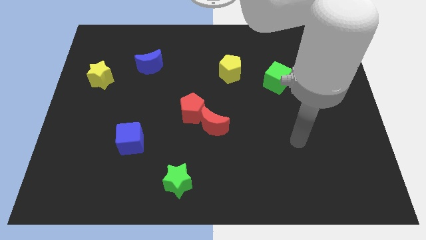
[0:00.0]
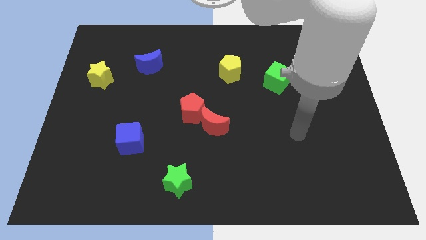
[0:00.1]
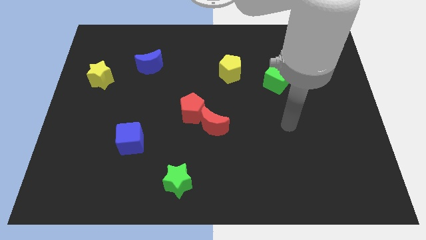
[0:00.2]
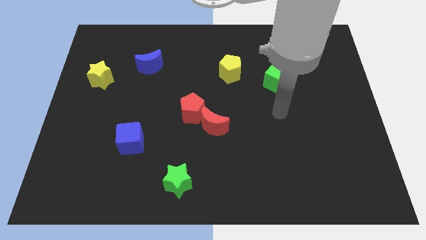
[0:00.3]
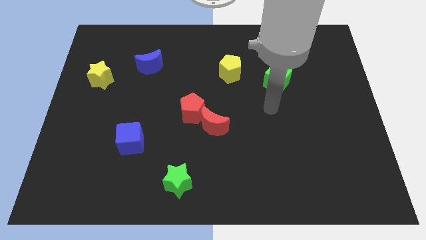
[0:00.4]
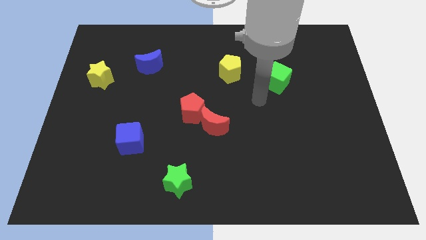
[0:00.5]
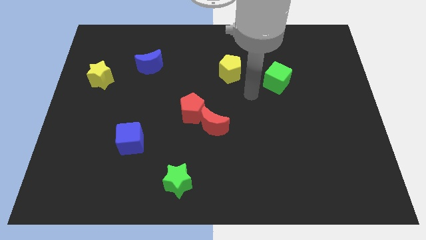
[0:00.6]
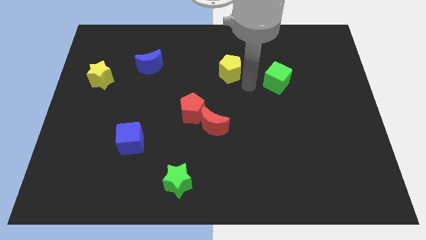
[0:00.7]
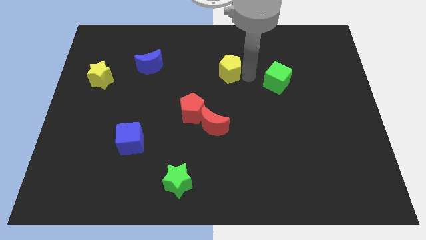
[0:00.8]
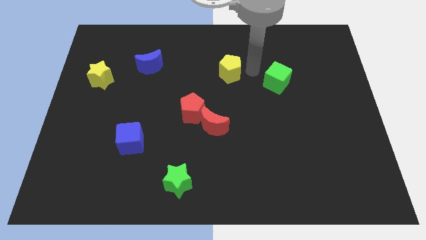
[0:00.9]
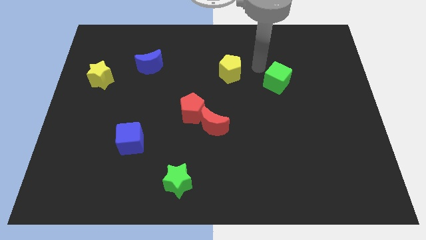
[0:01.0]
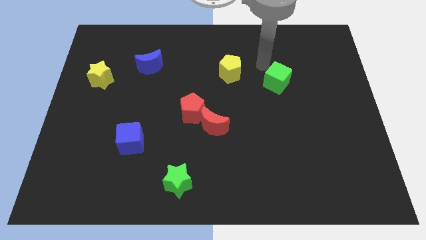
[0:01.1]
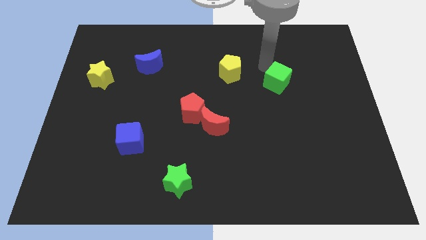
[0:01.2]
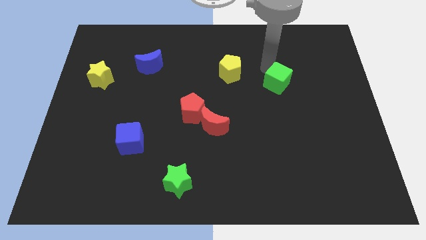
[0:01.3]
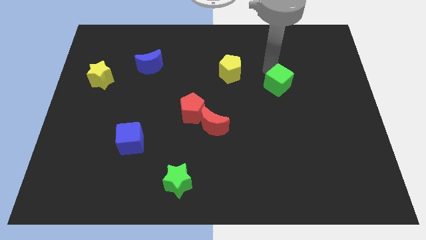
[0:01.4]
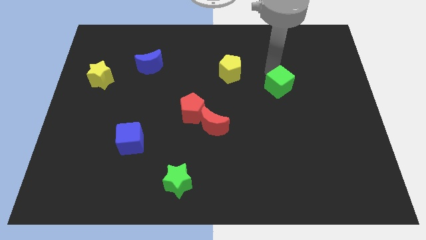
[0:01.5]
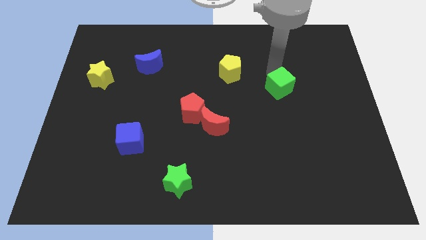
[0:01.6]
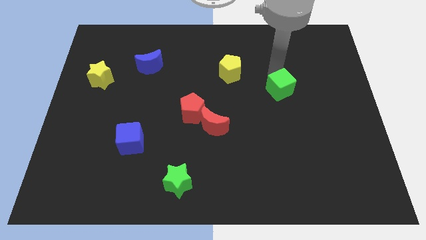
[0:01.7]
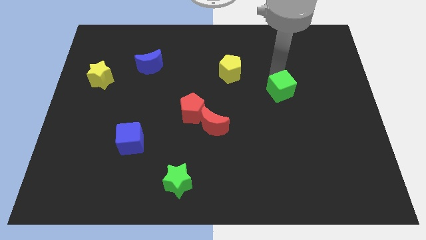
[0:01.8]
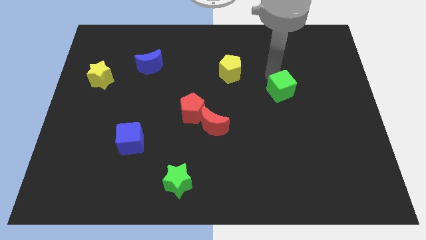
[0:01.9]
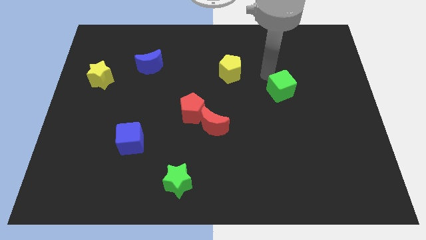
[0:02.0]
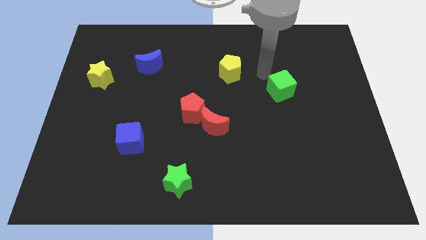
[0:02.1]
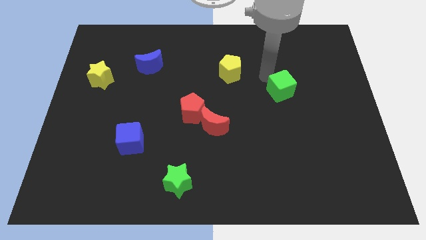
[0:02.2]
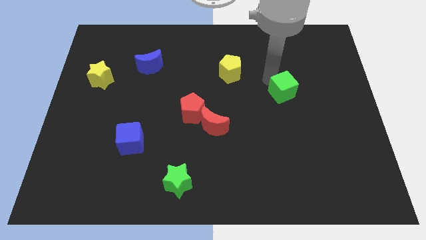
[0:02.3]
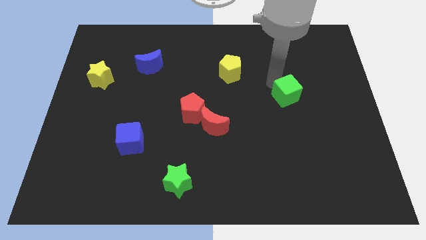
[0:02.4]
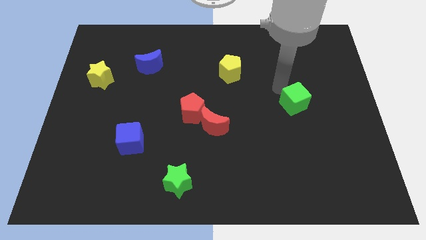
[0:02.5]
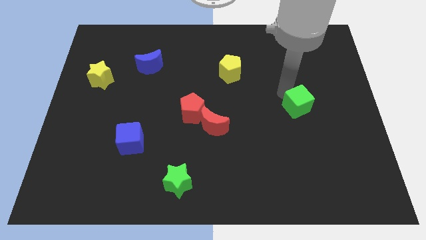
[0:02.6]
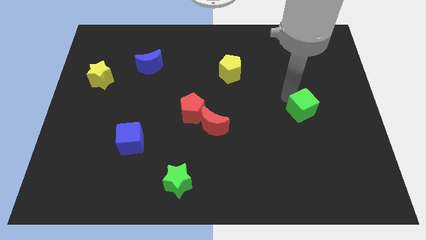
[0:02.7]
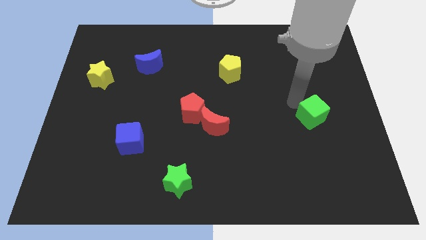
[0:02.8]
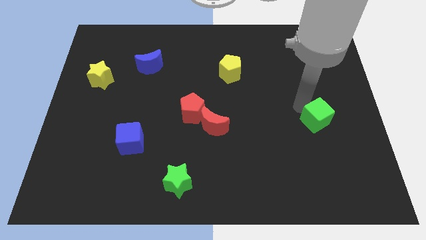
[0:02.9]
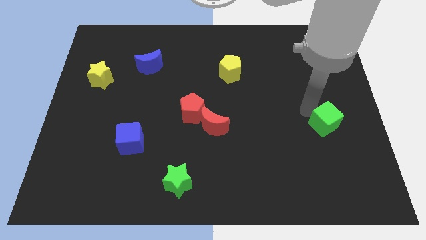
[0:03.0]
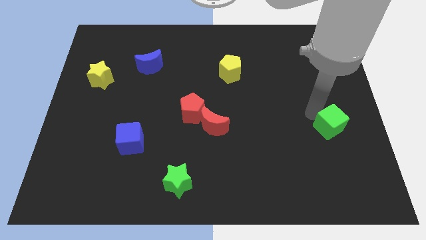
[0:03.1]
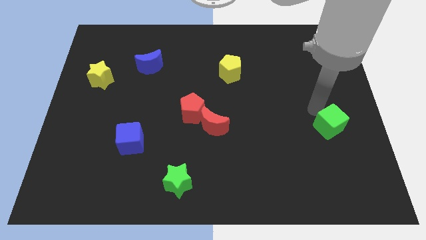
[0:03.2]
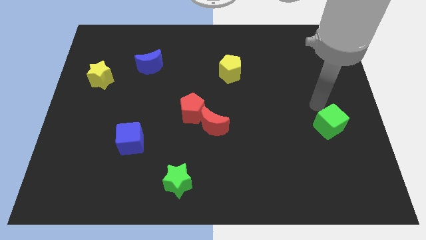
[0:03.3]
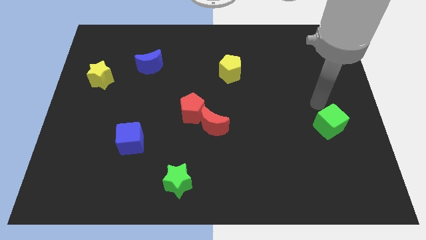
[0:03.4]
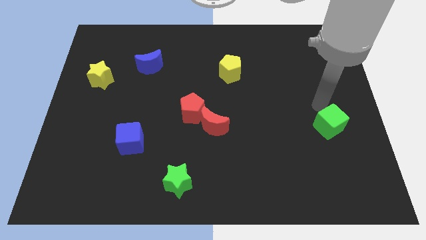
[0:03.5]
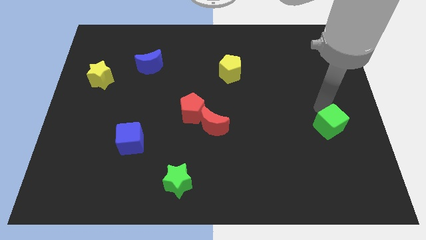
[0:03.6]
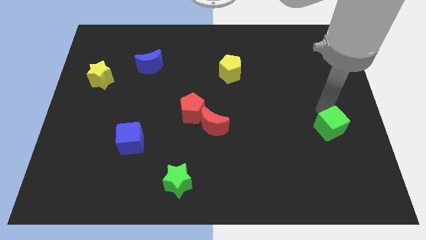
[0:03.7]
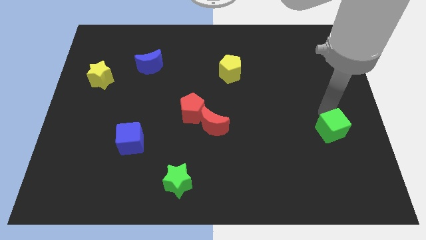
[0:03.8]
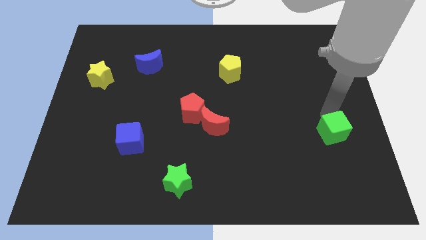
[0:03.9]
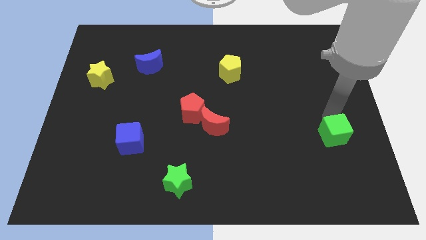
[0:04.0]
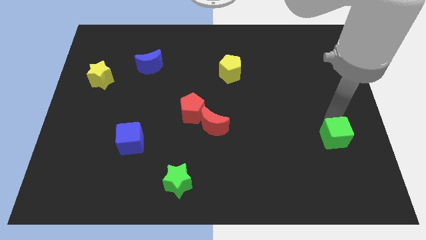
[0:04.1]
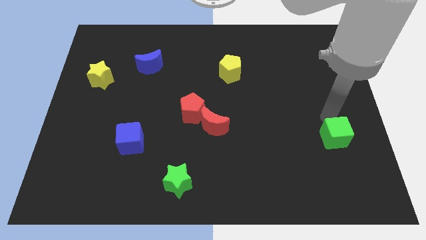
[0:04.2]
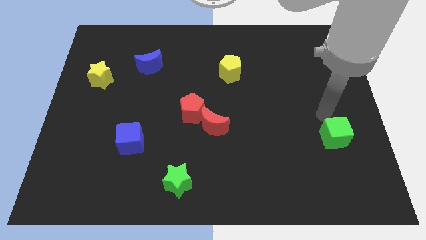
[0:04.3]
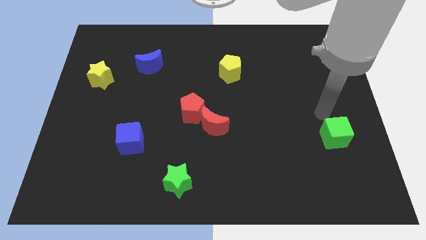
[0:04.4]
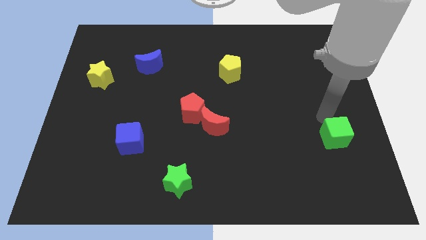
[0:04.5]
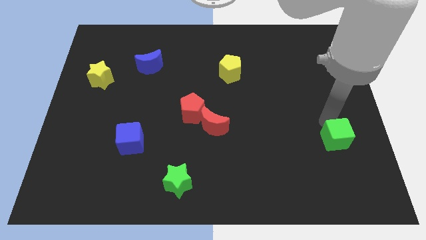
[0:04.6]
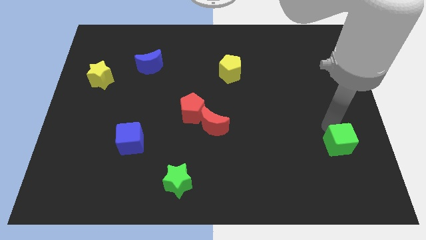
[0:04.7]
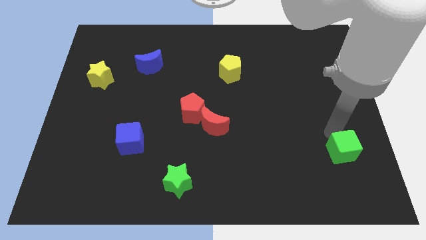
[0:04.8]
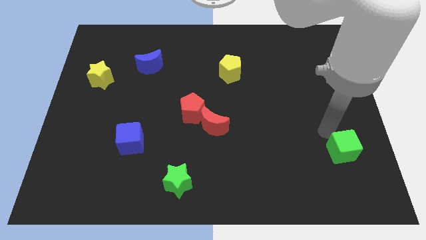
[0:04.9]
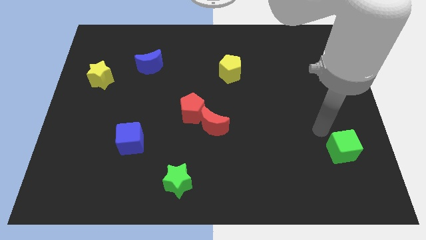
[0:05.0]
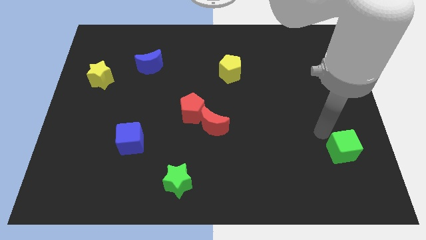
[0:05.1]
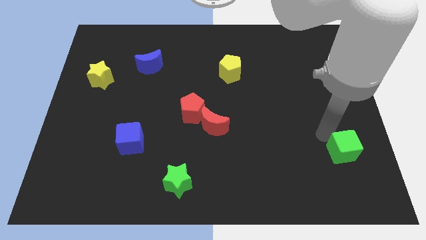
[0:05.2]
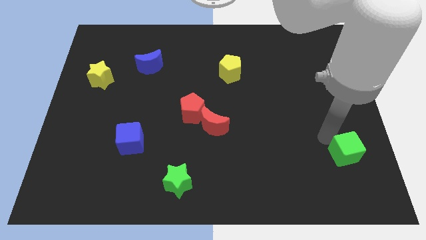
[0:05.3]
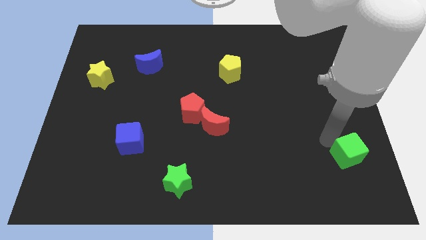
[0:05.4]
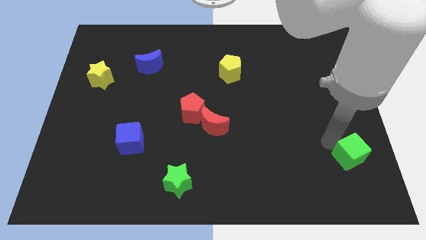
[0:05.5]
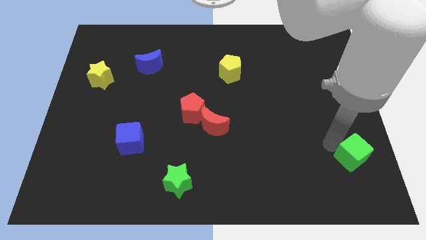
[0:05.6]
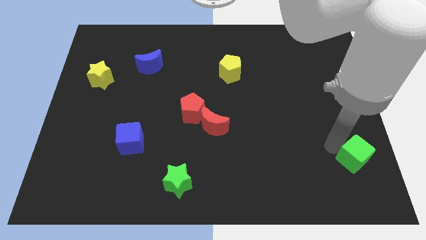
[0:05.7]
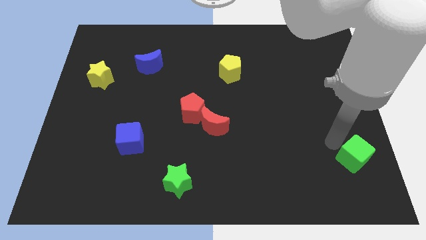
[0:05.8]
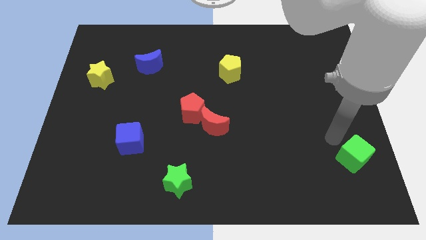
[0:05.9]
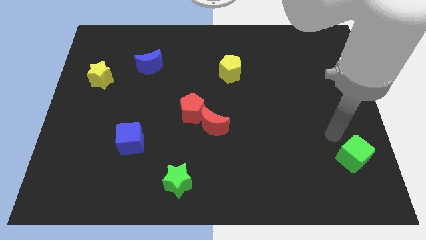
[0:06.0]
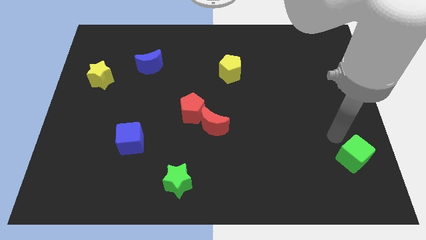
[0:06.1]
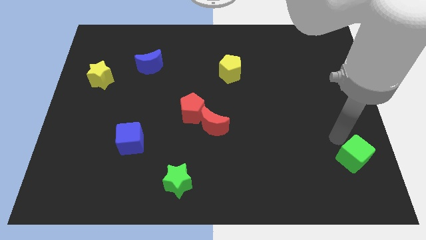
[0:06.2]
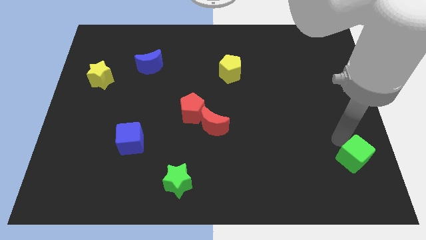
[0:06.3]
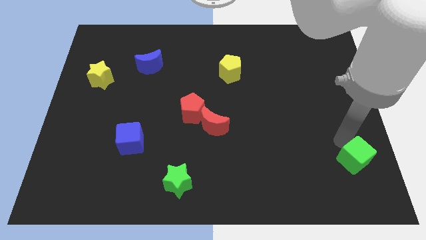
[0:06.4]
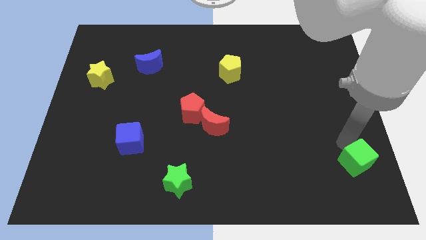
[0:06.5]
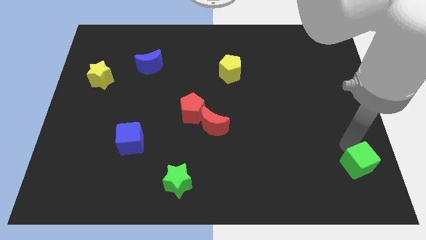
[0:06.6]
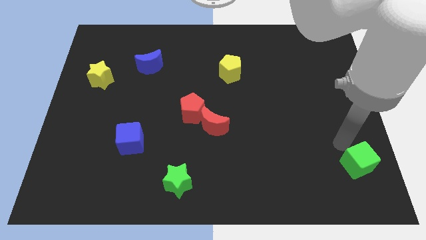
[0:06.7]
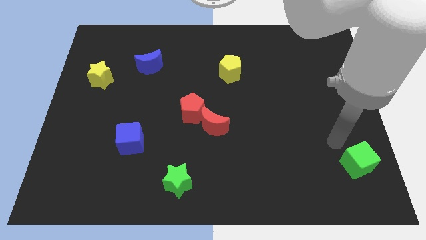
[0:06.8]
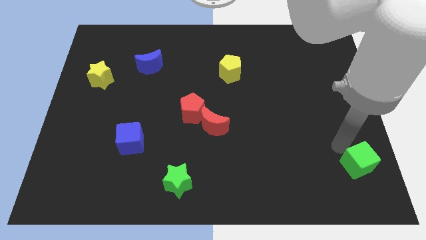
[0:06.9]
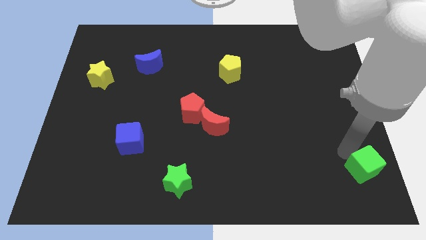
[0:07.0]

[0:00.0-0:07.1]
put the green cube to the bottom right

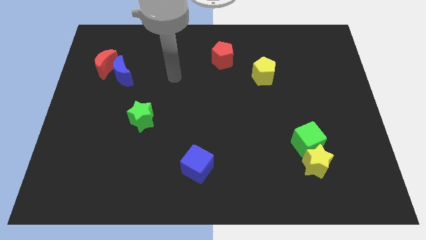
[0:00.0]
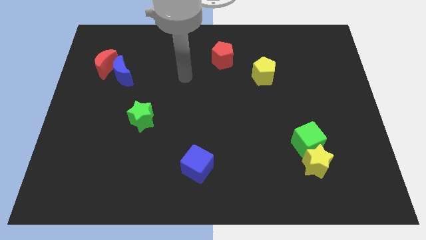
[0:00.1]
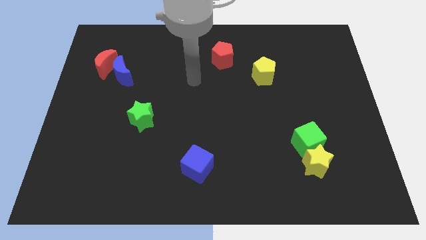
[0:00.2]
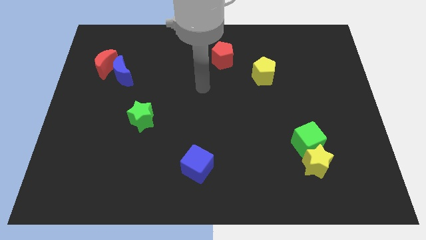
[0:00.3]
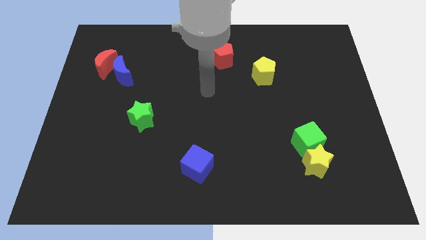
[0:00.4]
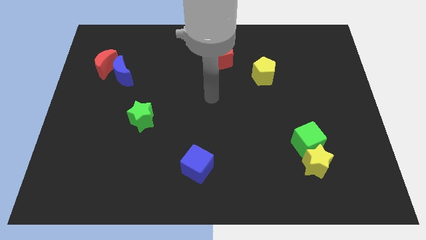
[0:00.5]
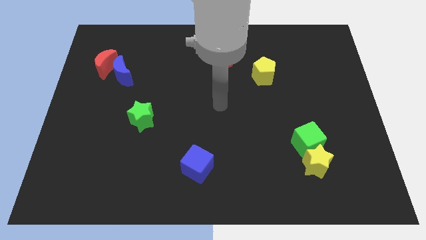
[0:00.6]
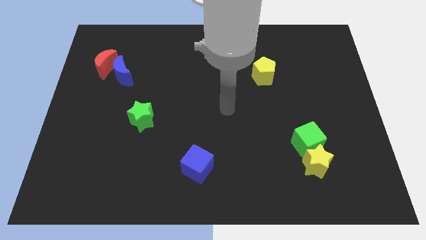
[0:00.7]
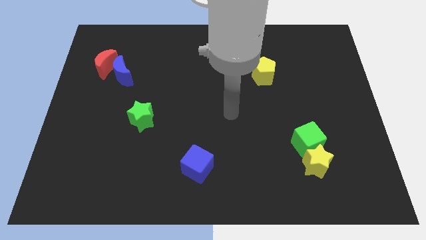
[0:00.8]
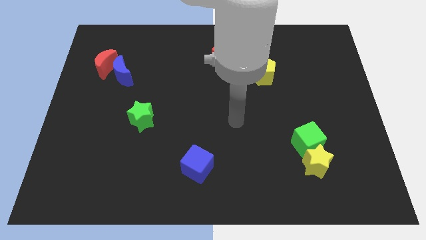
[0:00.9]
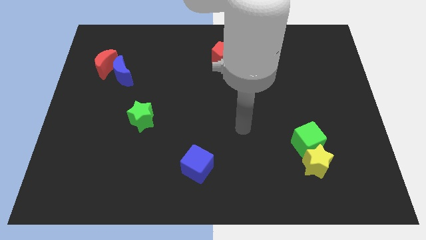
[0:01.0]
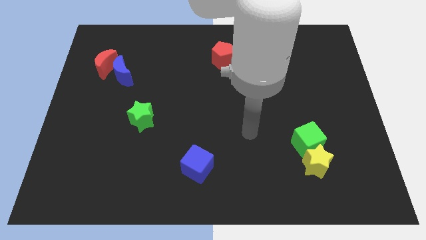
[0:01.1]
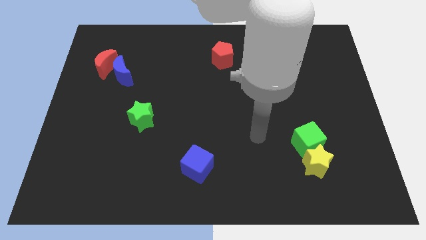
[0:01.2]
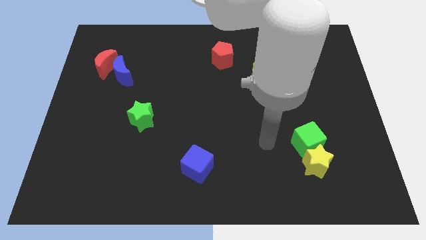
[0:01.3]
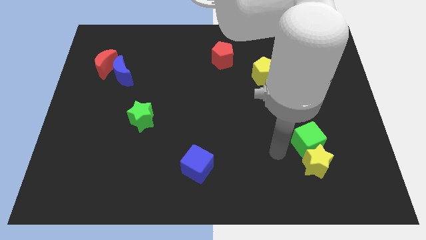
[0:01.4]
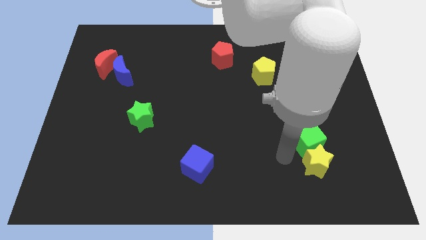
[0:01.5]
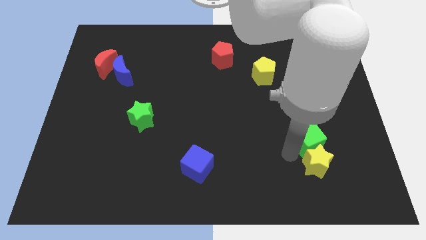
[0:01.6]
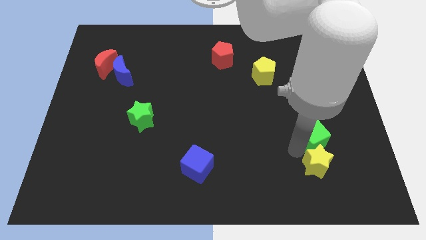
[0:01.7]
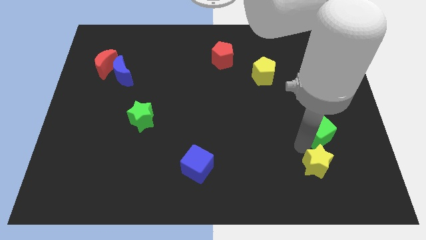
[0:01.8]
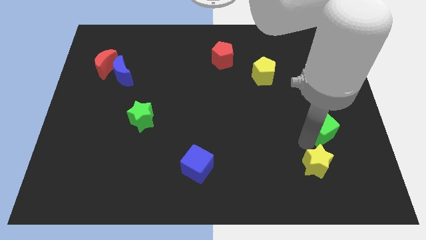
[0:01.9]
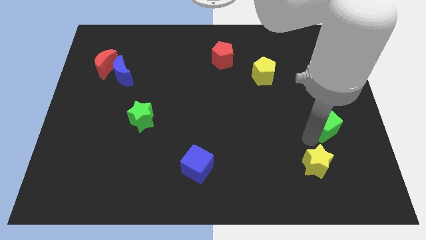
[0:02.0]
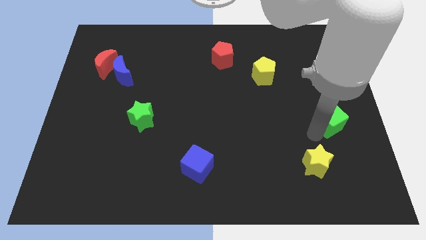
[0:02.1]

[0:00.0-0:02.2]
push the green cube to the right side of the board
